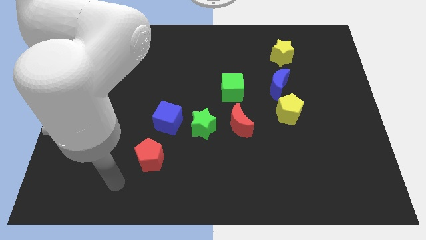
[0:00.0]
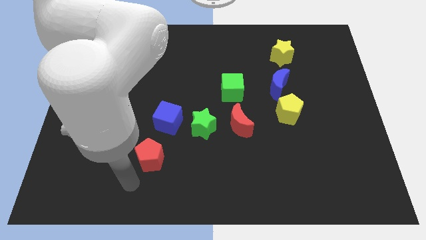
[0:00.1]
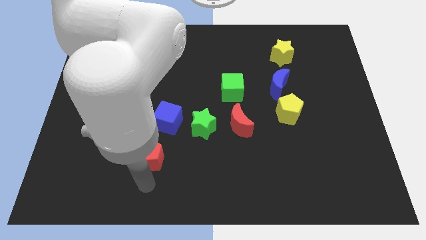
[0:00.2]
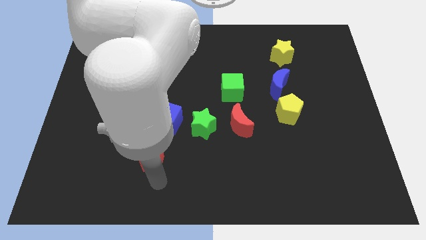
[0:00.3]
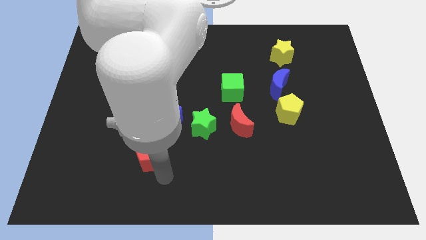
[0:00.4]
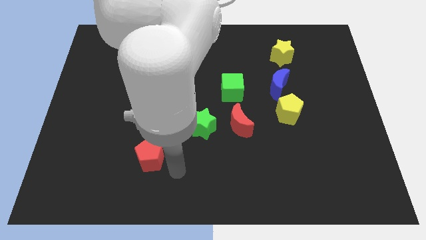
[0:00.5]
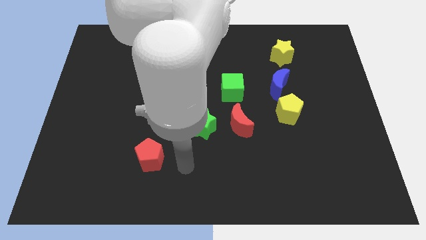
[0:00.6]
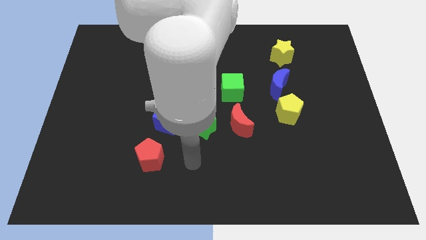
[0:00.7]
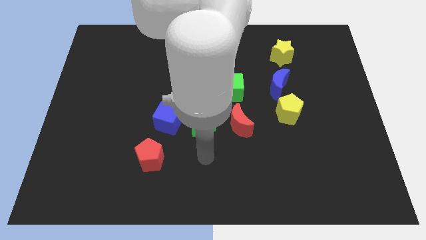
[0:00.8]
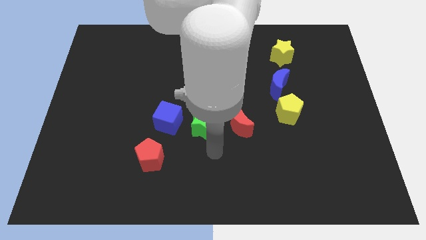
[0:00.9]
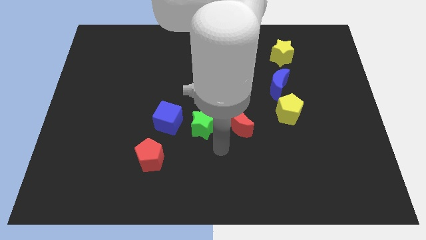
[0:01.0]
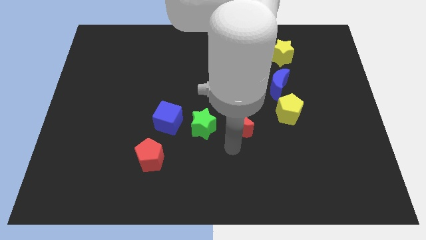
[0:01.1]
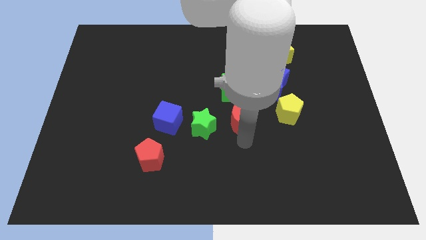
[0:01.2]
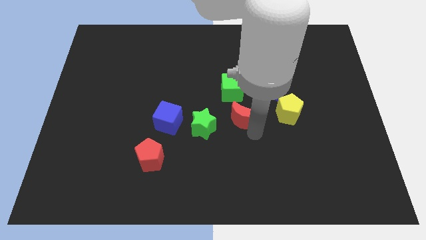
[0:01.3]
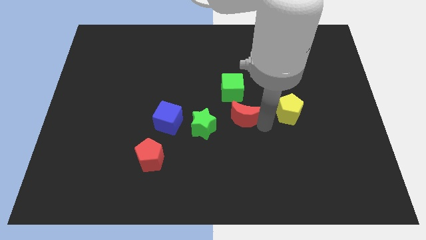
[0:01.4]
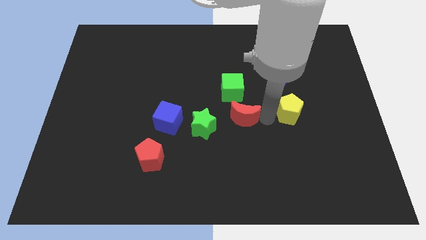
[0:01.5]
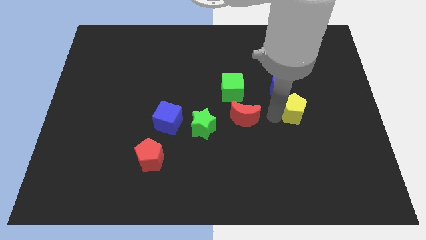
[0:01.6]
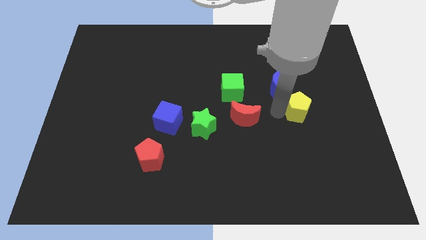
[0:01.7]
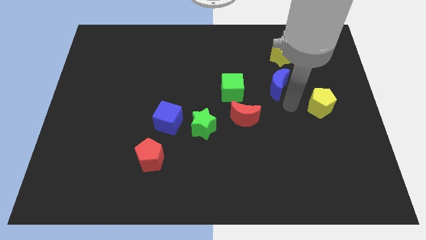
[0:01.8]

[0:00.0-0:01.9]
move the blue moon away from the yellow pentagon

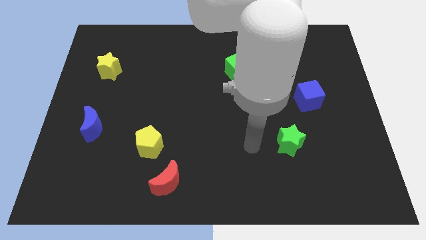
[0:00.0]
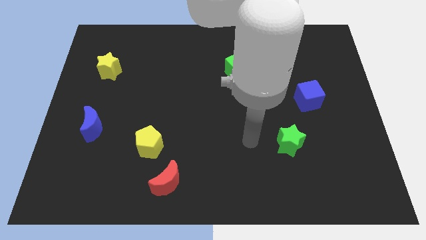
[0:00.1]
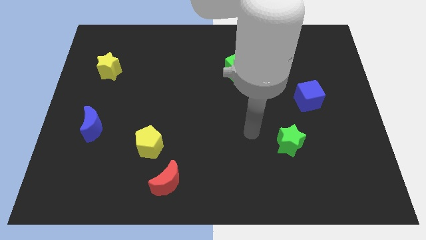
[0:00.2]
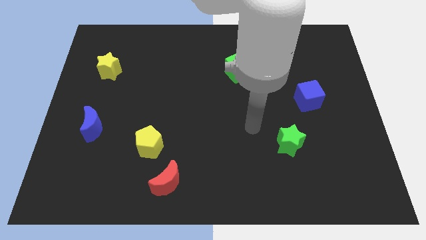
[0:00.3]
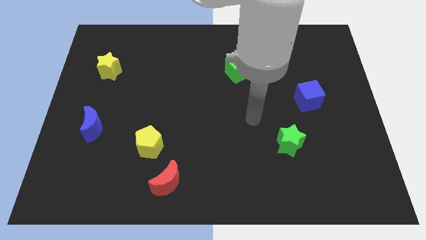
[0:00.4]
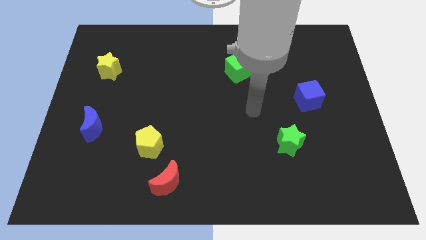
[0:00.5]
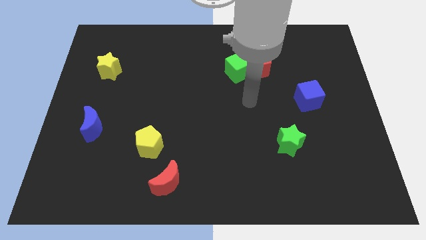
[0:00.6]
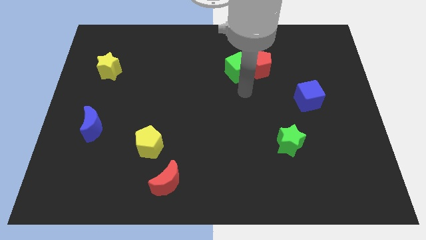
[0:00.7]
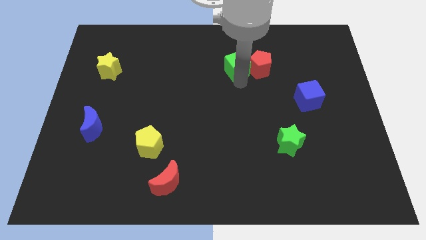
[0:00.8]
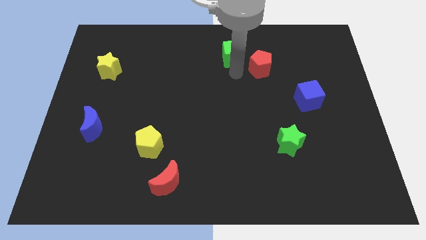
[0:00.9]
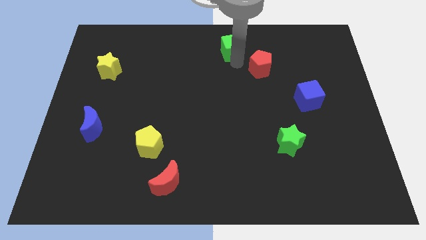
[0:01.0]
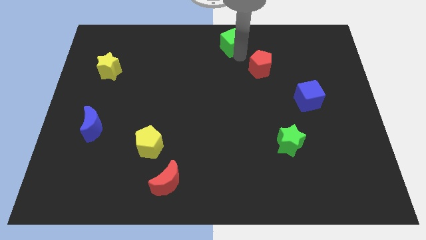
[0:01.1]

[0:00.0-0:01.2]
pull the red pentagon apart from the green cube

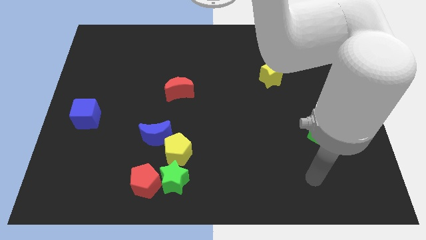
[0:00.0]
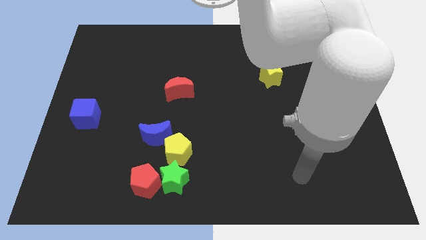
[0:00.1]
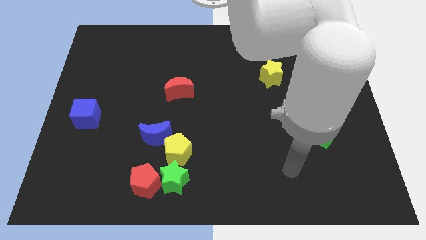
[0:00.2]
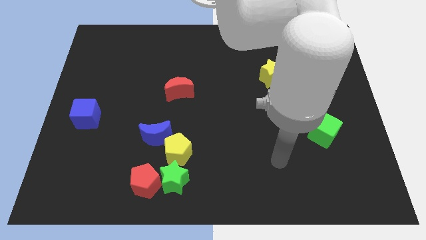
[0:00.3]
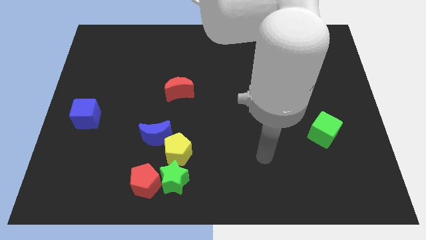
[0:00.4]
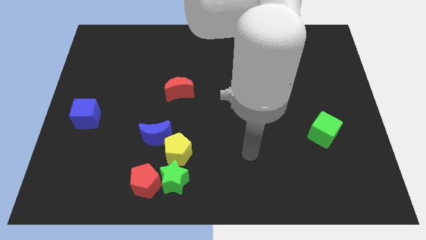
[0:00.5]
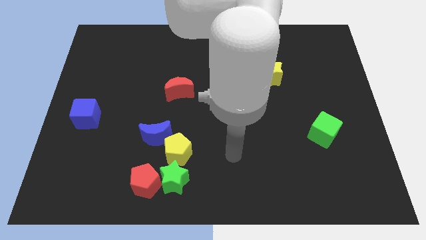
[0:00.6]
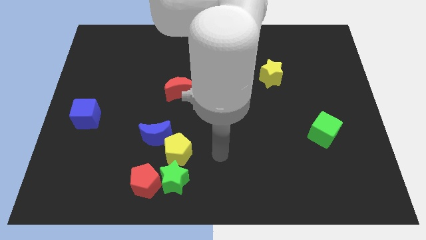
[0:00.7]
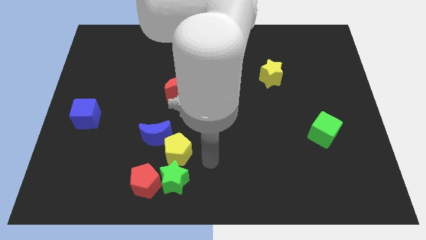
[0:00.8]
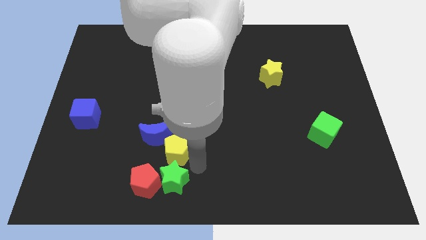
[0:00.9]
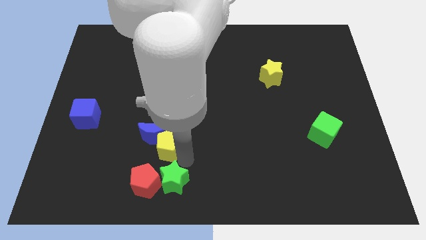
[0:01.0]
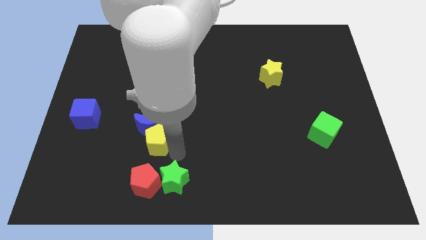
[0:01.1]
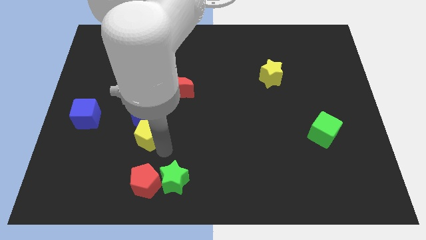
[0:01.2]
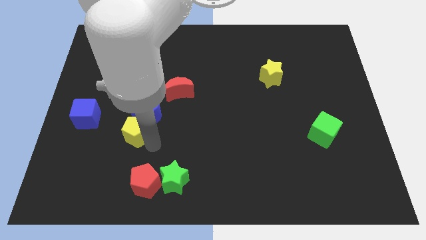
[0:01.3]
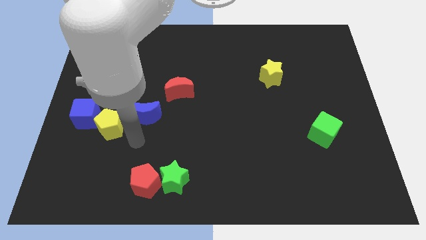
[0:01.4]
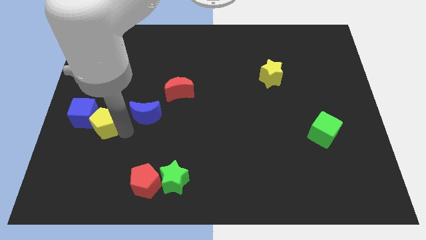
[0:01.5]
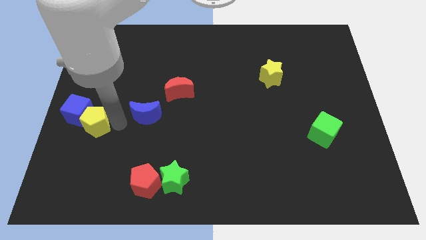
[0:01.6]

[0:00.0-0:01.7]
separate the blue moon from the yellow pentagon

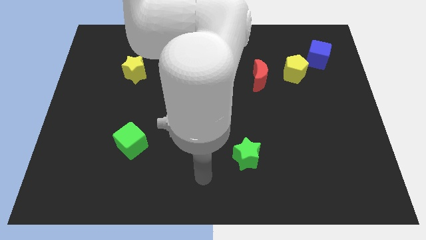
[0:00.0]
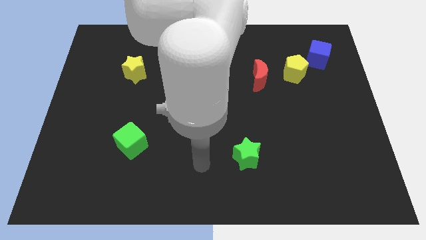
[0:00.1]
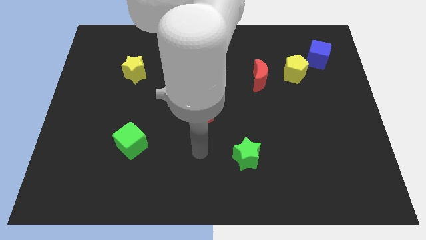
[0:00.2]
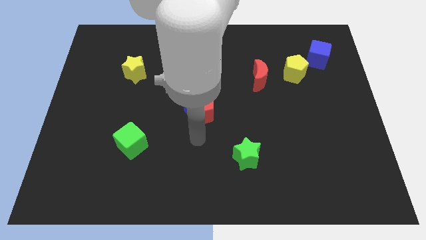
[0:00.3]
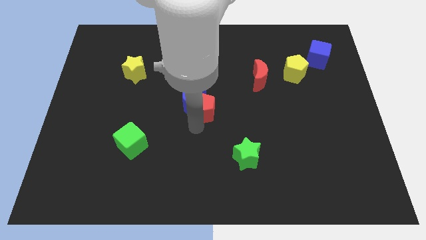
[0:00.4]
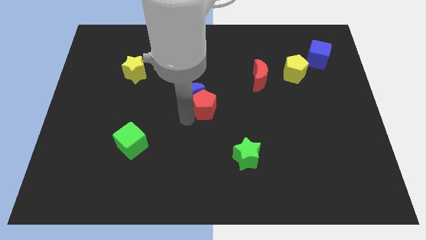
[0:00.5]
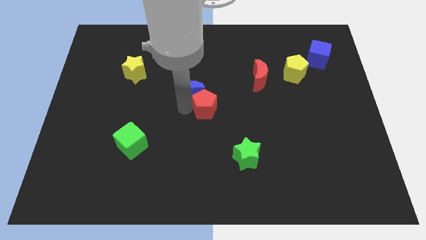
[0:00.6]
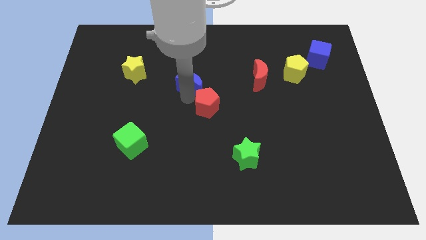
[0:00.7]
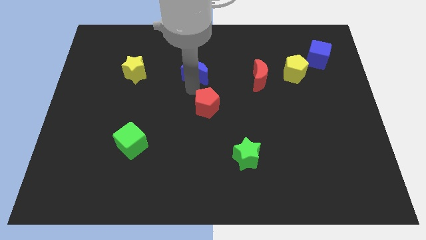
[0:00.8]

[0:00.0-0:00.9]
separate the red pentagon from the blue moon

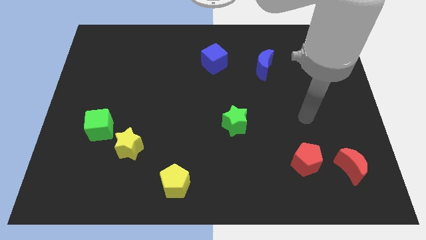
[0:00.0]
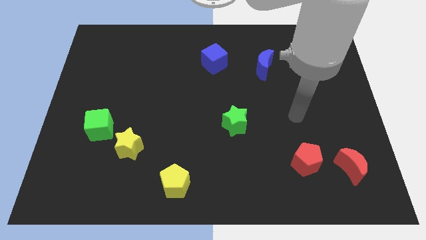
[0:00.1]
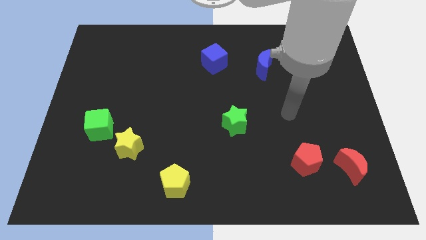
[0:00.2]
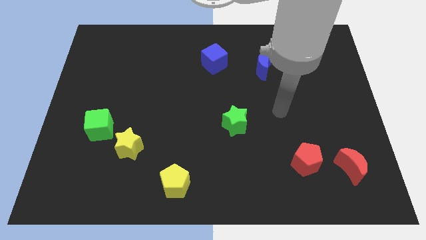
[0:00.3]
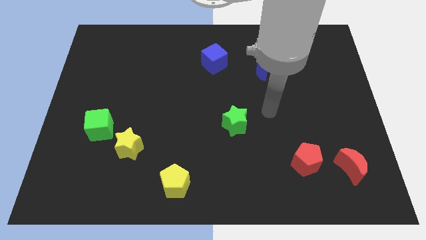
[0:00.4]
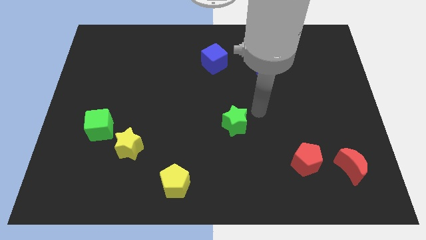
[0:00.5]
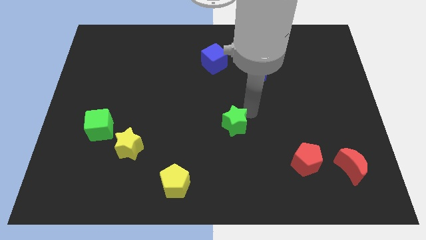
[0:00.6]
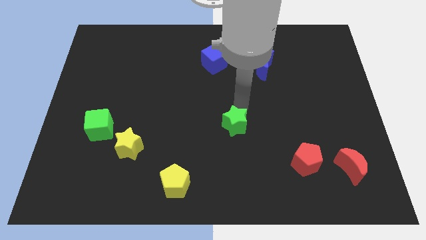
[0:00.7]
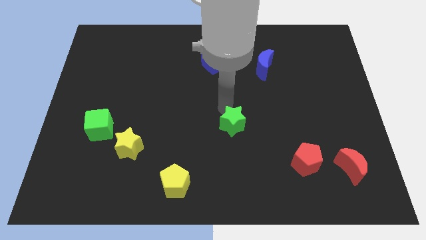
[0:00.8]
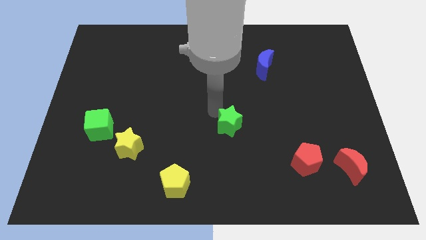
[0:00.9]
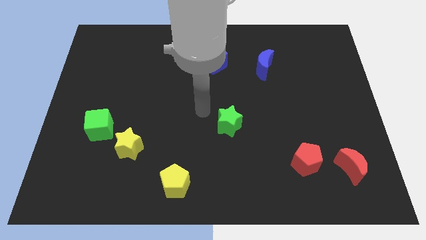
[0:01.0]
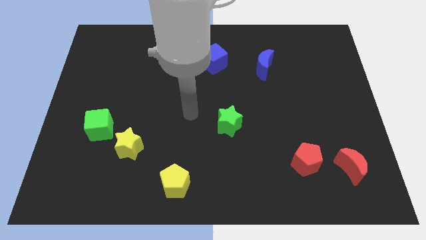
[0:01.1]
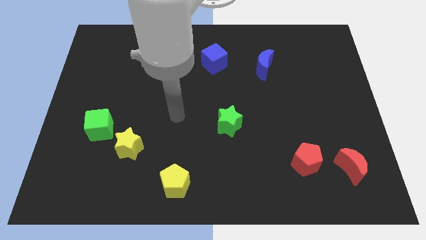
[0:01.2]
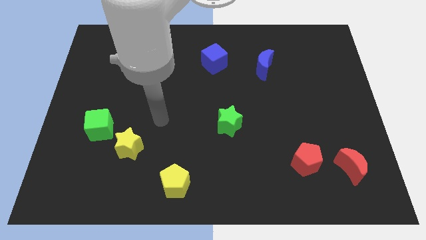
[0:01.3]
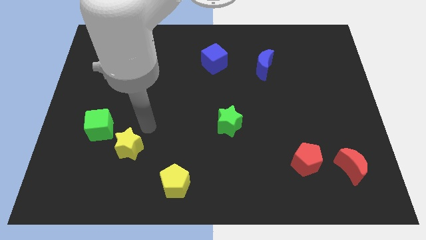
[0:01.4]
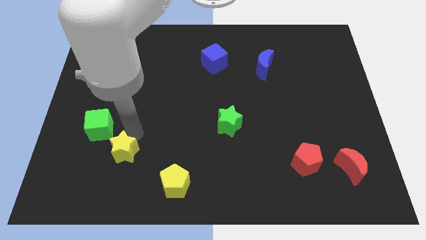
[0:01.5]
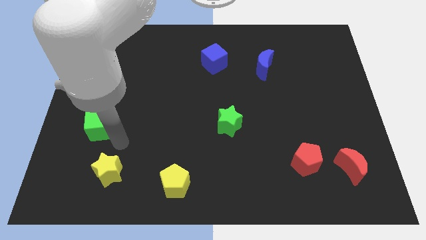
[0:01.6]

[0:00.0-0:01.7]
separate the green cube from the yellow star

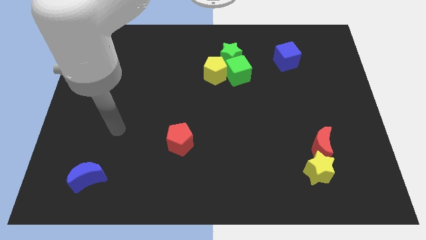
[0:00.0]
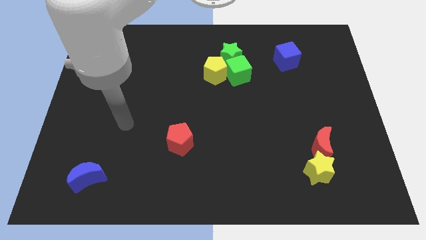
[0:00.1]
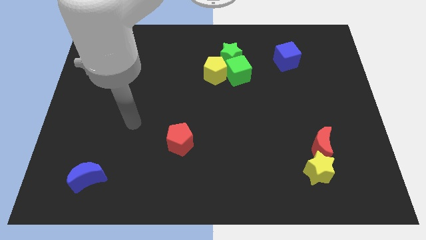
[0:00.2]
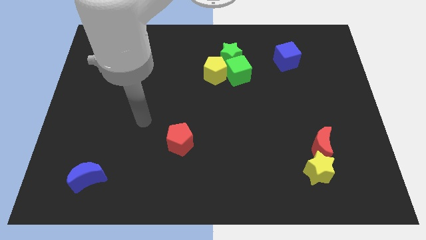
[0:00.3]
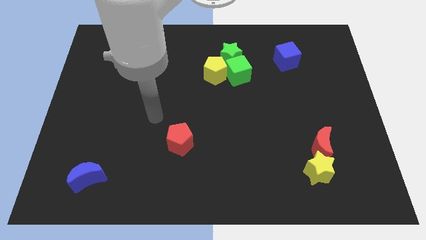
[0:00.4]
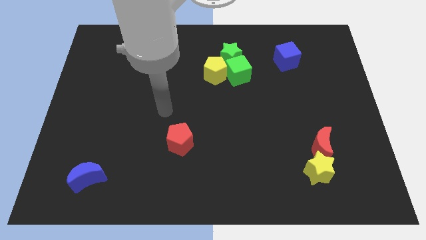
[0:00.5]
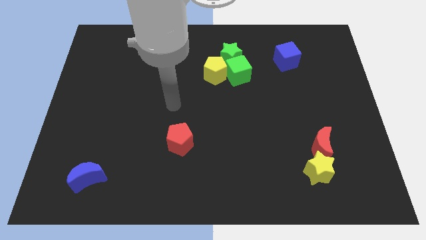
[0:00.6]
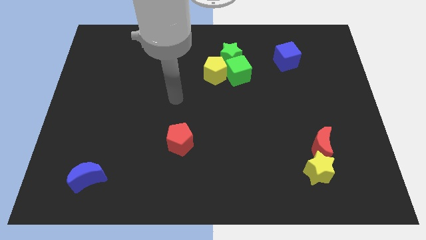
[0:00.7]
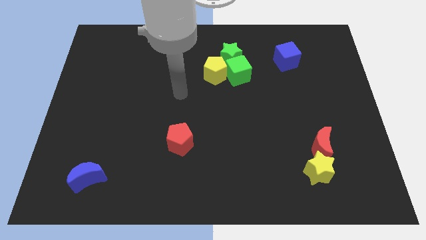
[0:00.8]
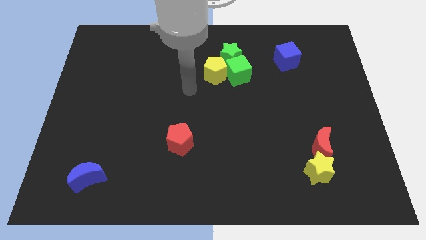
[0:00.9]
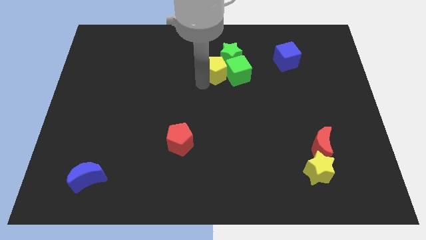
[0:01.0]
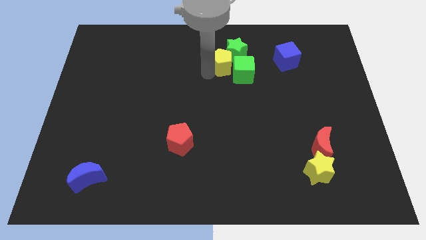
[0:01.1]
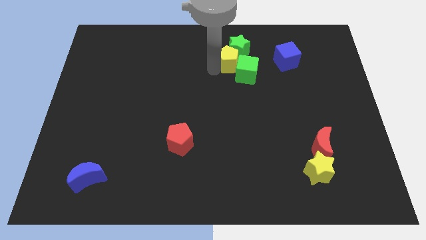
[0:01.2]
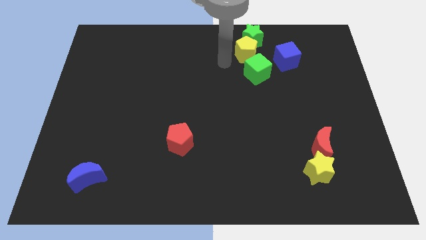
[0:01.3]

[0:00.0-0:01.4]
move the green cube away from the yellow pentagon and green star

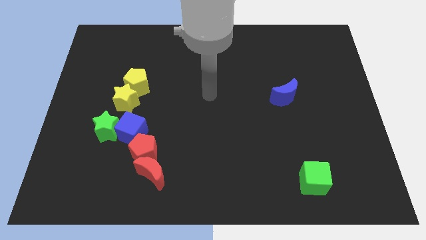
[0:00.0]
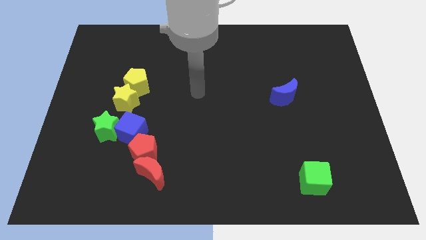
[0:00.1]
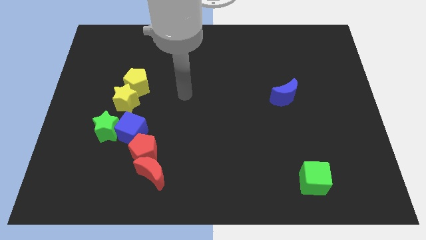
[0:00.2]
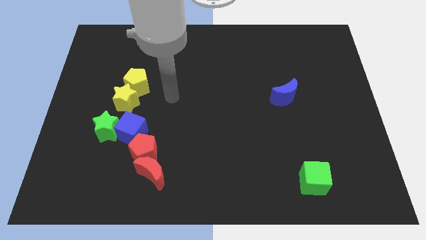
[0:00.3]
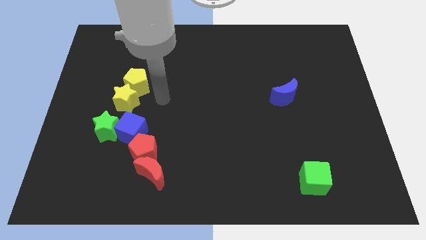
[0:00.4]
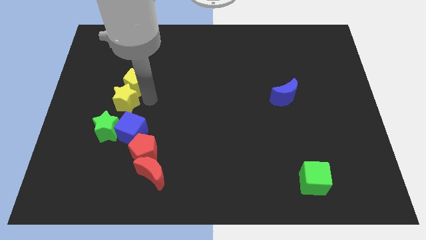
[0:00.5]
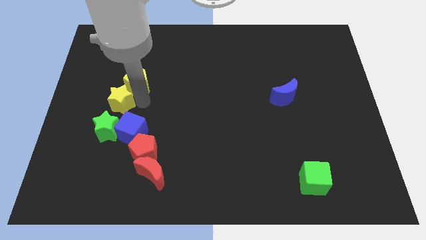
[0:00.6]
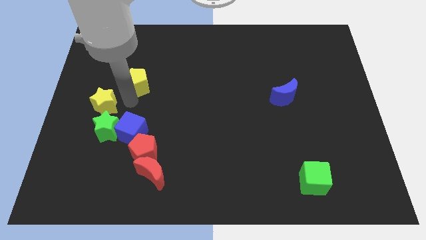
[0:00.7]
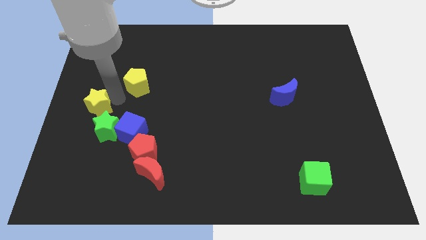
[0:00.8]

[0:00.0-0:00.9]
pull the yellow pentagon apart from the yellow star
